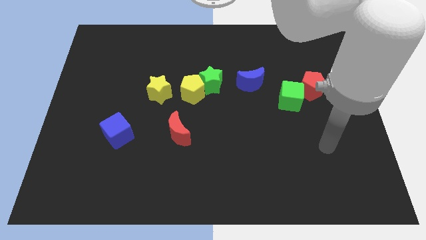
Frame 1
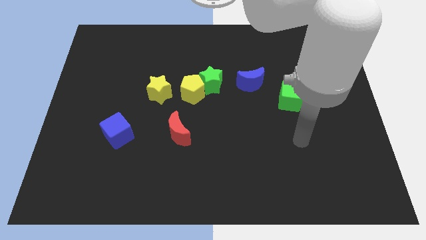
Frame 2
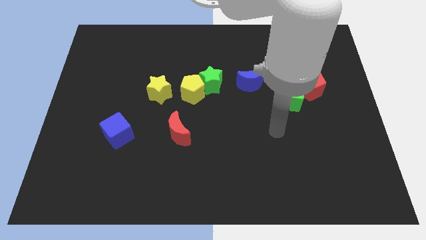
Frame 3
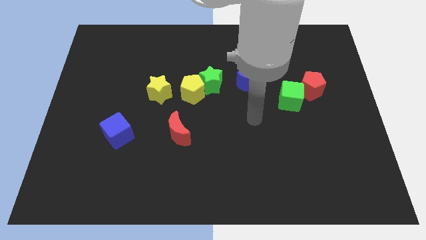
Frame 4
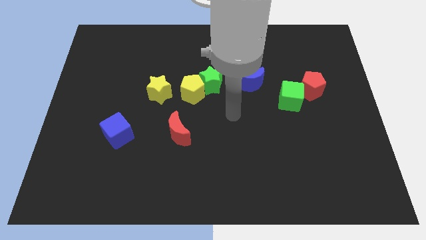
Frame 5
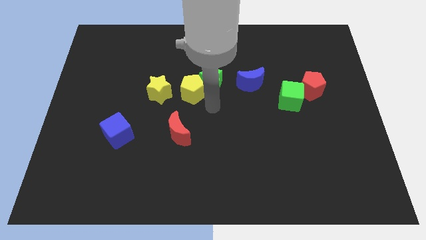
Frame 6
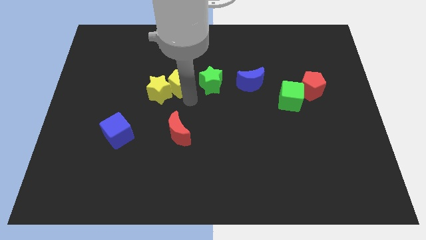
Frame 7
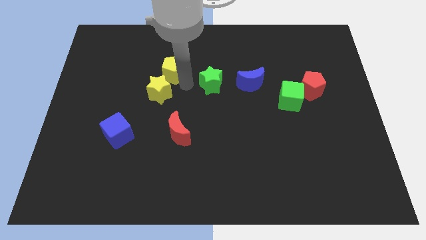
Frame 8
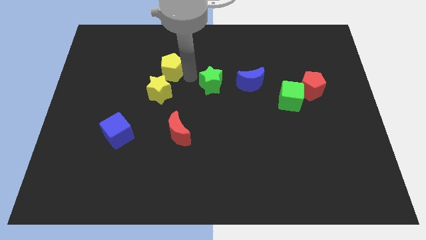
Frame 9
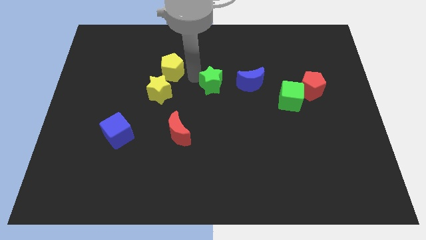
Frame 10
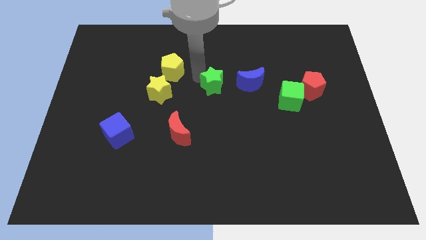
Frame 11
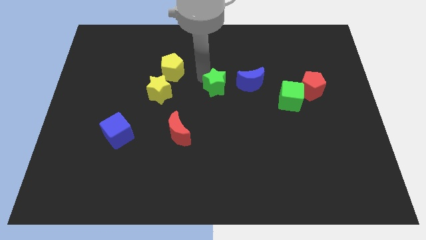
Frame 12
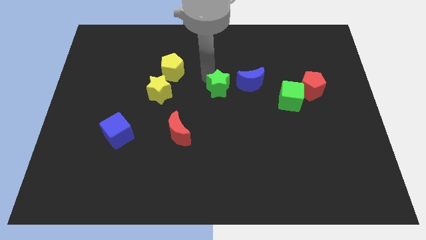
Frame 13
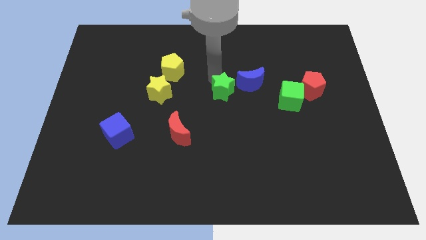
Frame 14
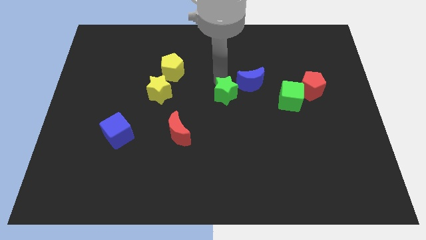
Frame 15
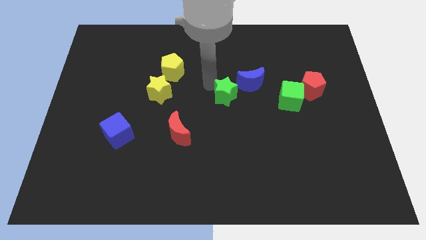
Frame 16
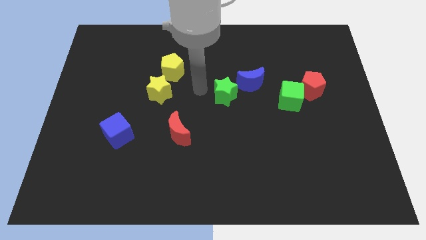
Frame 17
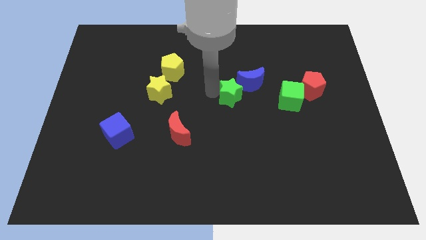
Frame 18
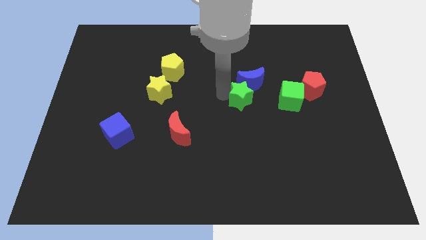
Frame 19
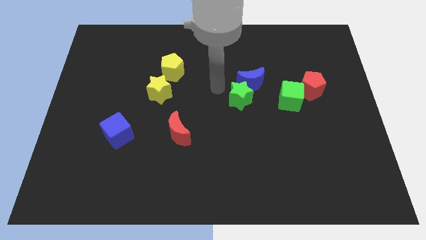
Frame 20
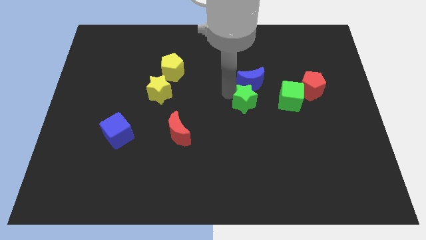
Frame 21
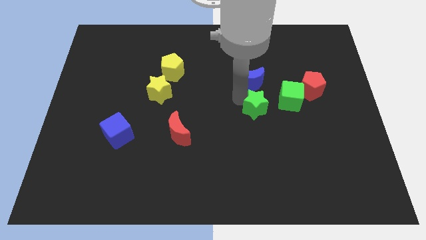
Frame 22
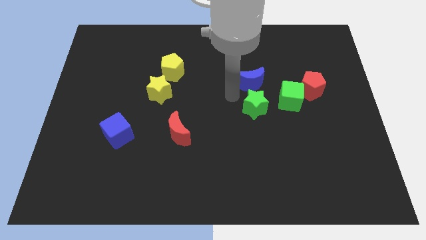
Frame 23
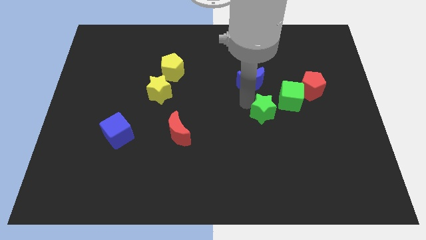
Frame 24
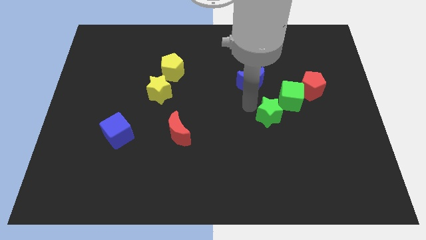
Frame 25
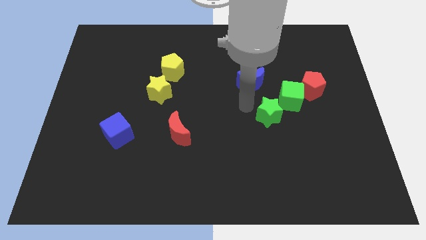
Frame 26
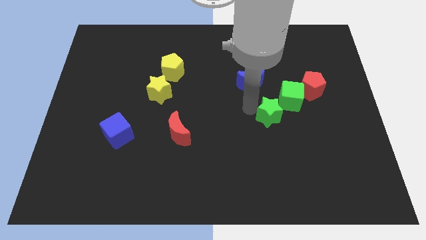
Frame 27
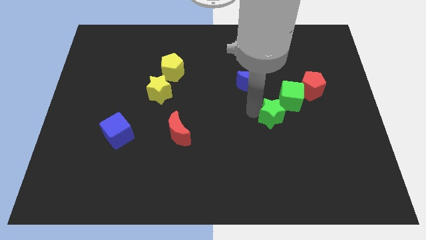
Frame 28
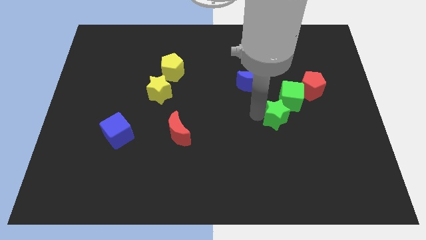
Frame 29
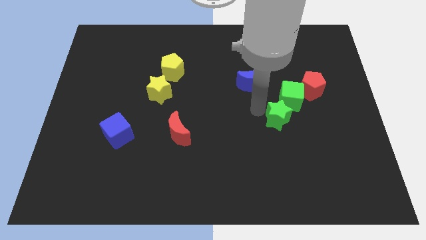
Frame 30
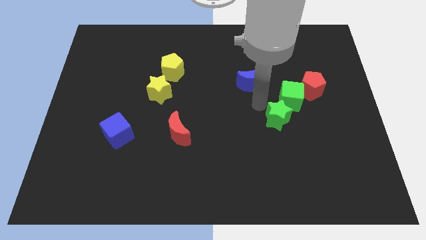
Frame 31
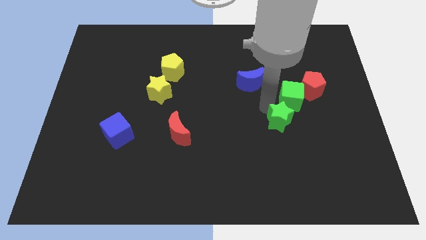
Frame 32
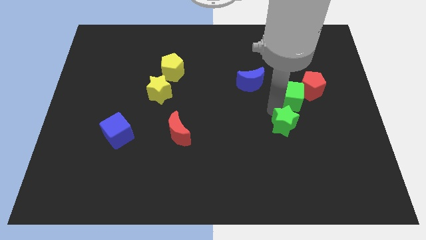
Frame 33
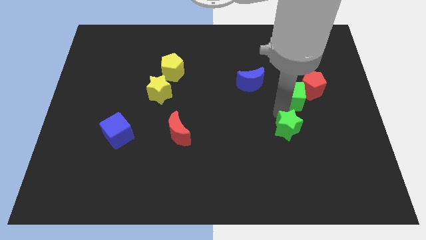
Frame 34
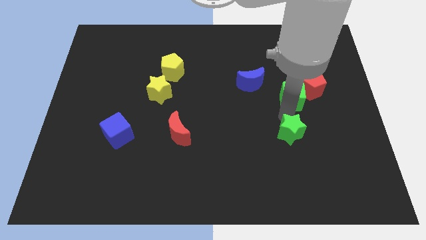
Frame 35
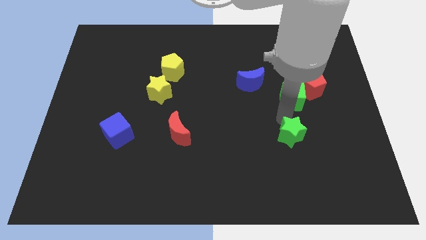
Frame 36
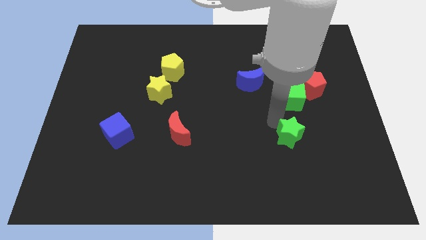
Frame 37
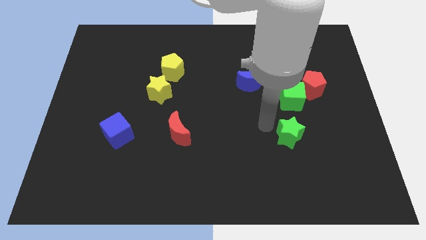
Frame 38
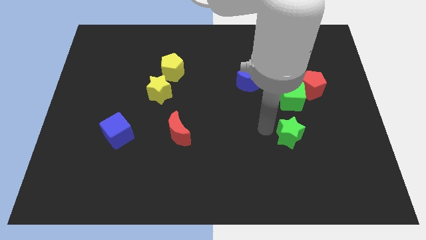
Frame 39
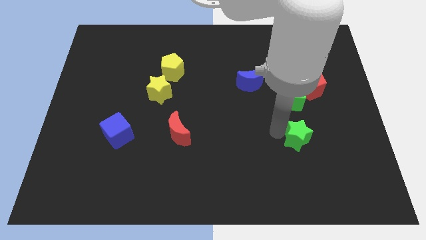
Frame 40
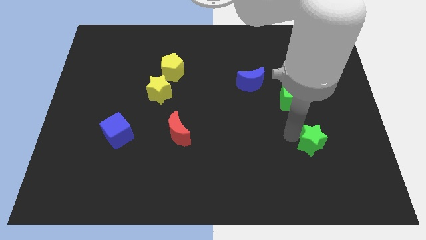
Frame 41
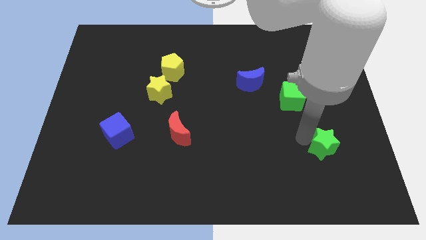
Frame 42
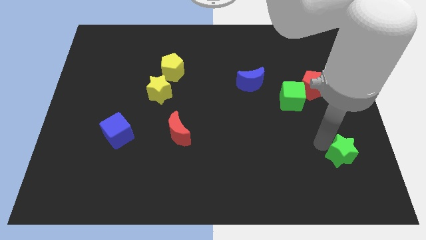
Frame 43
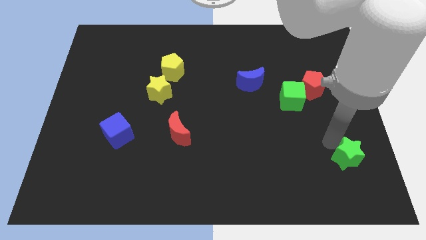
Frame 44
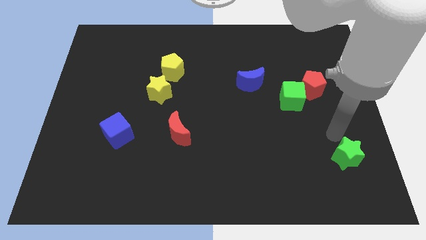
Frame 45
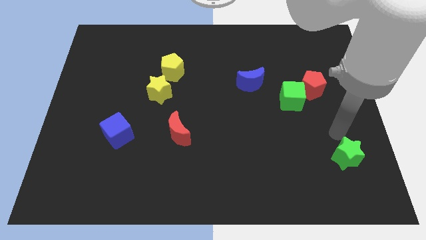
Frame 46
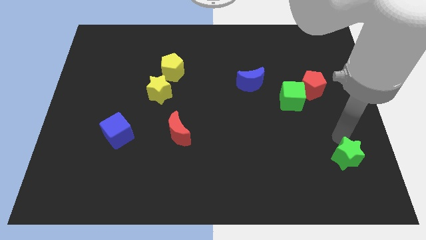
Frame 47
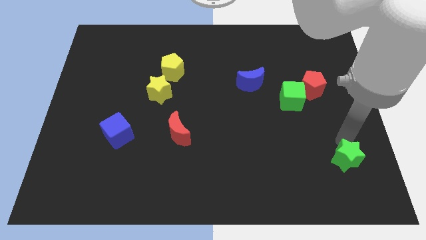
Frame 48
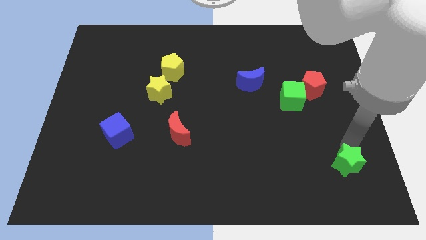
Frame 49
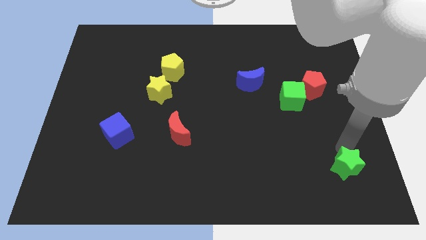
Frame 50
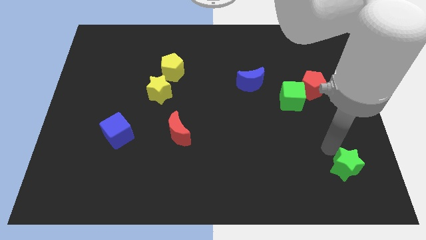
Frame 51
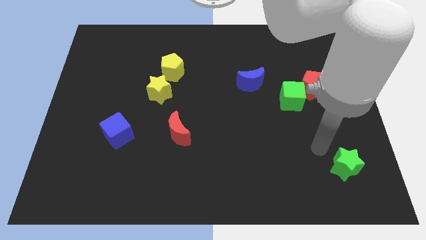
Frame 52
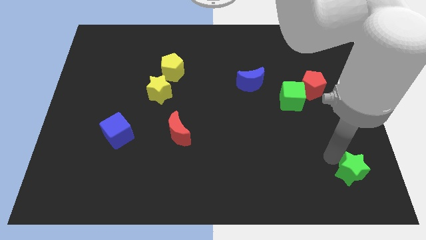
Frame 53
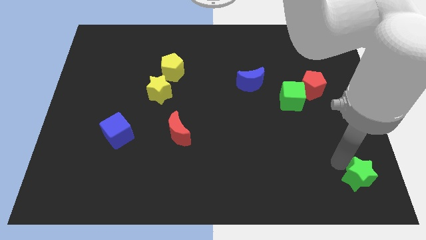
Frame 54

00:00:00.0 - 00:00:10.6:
slide the green star to the bottom right of the board
